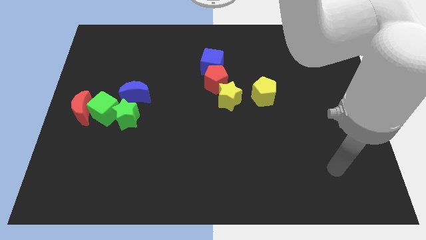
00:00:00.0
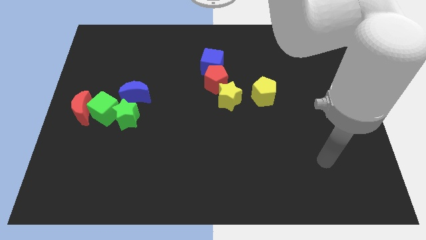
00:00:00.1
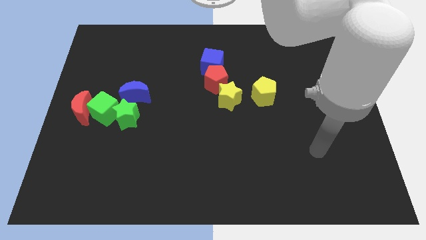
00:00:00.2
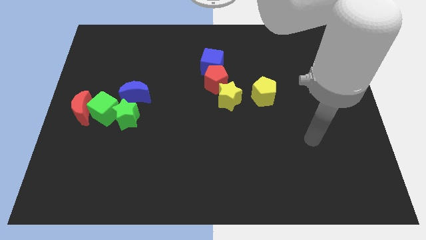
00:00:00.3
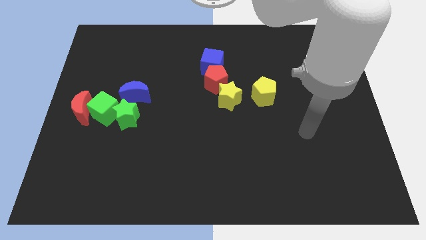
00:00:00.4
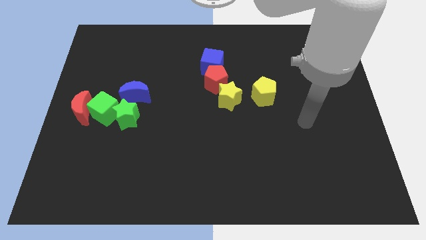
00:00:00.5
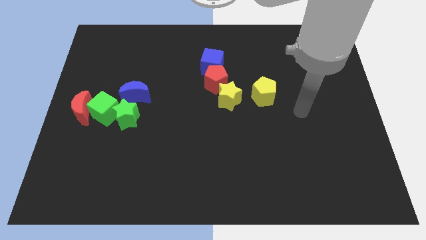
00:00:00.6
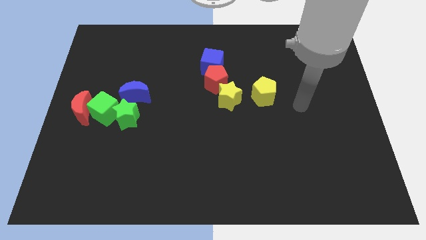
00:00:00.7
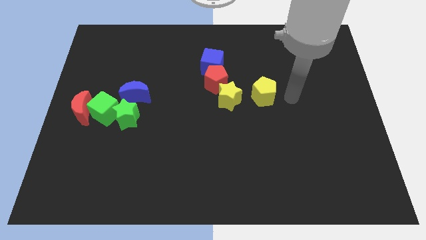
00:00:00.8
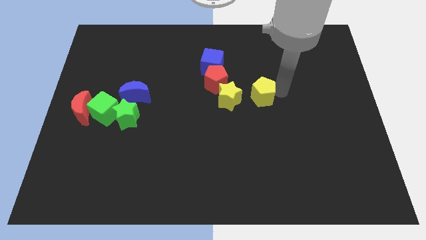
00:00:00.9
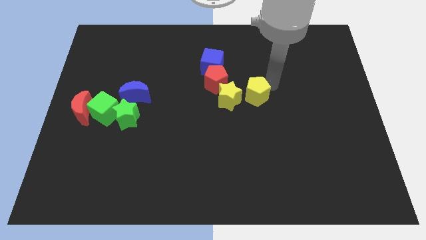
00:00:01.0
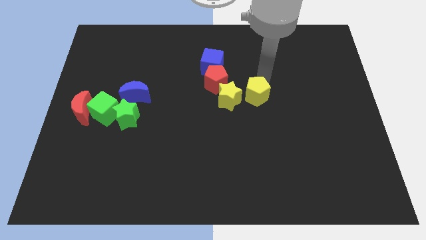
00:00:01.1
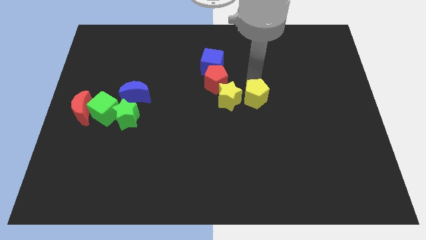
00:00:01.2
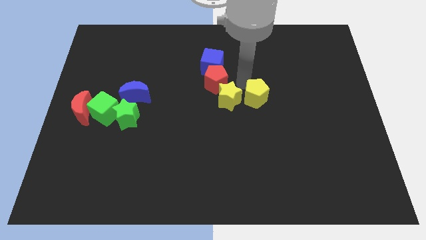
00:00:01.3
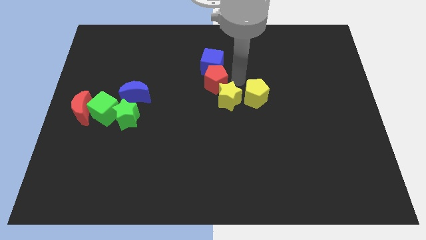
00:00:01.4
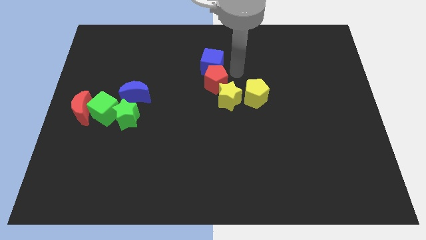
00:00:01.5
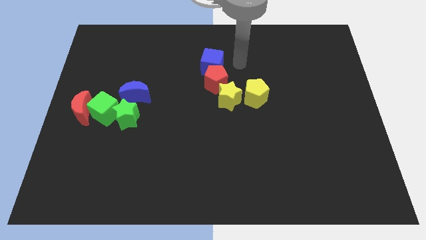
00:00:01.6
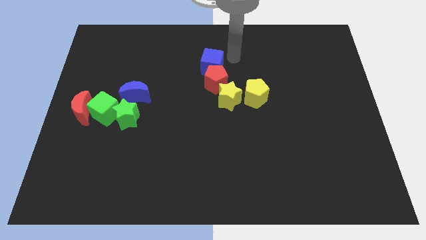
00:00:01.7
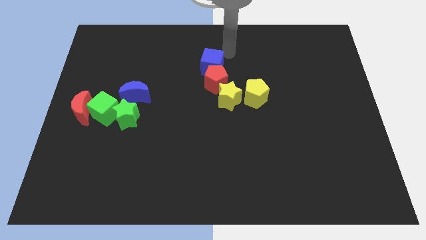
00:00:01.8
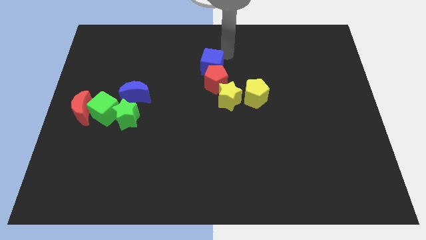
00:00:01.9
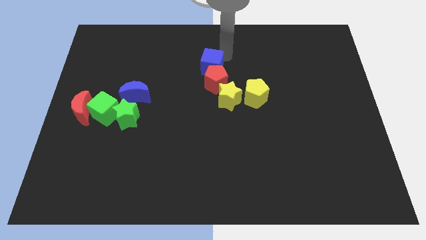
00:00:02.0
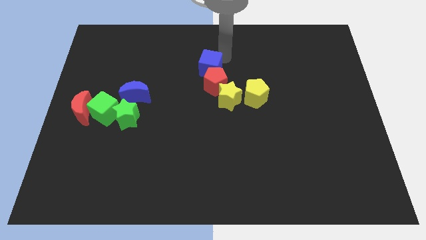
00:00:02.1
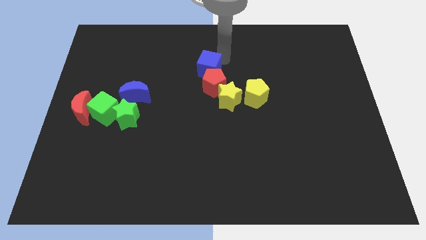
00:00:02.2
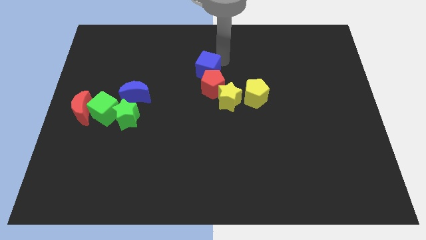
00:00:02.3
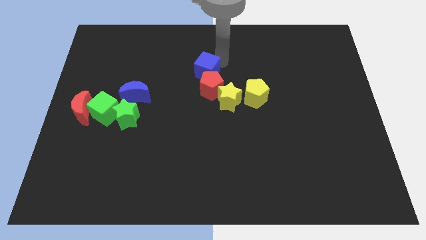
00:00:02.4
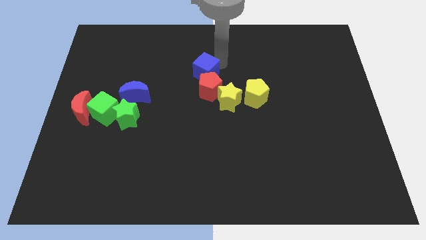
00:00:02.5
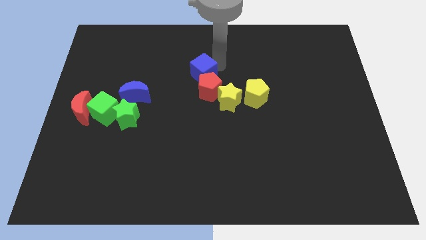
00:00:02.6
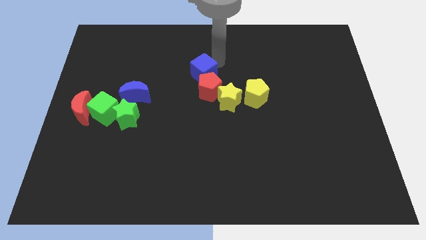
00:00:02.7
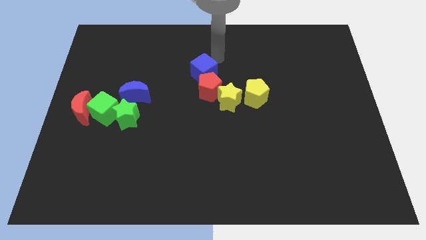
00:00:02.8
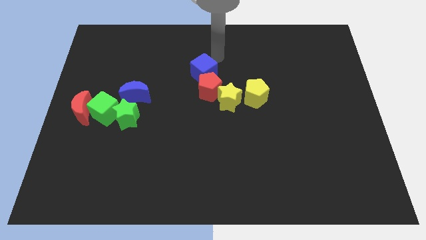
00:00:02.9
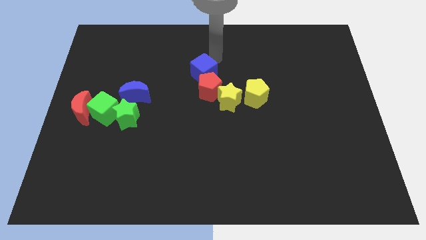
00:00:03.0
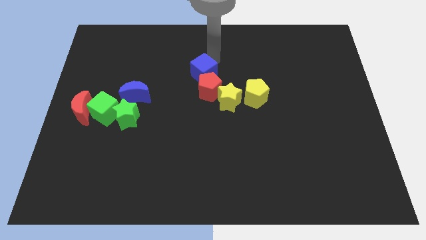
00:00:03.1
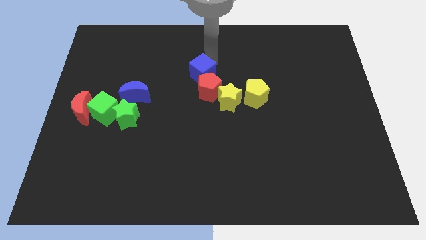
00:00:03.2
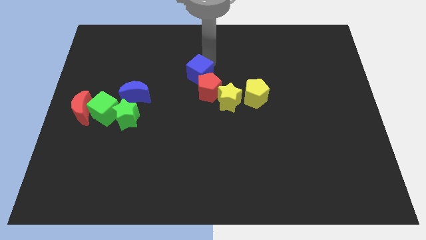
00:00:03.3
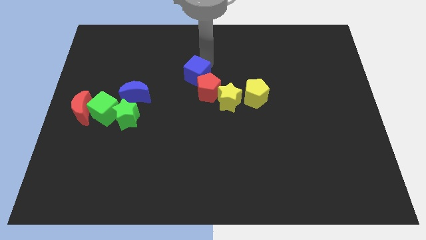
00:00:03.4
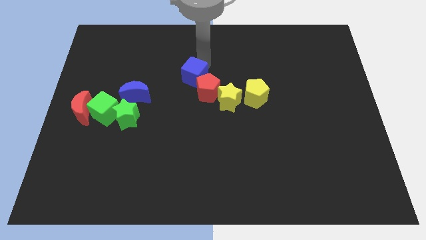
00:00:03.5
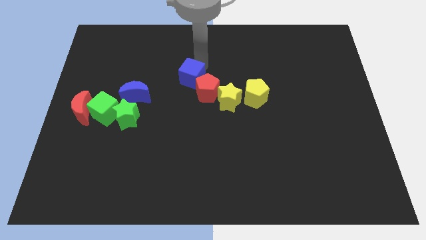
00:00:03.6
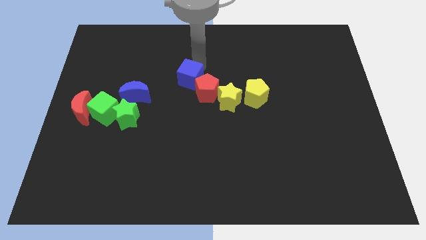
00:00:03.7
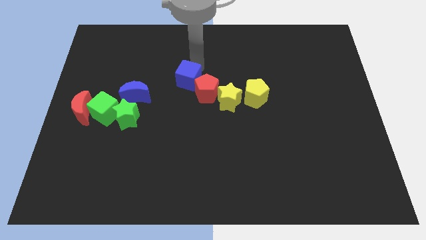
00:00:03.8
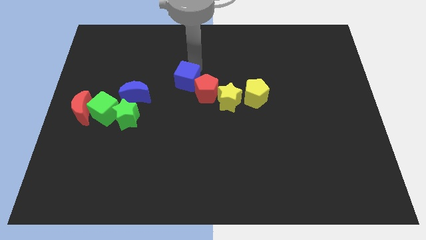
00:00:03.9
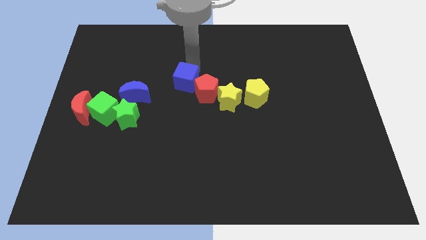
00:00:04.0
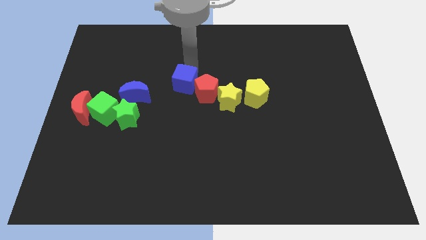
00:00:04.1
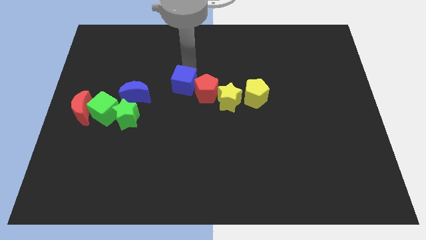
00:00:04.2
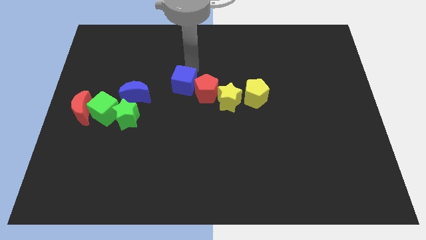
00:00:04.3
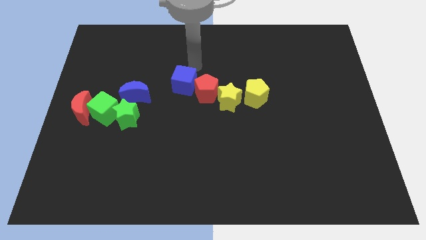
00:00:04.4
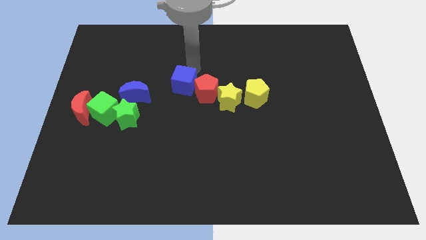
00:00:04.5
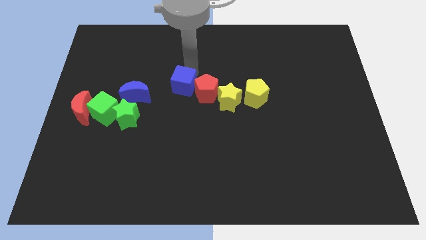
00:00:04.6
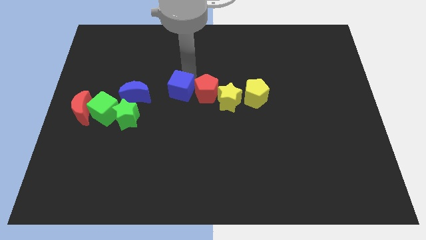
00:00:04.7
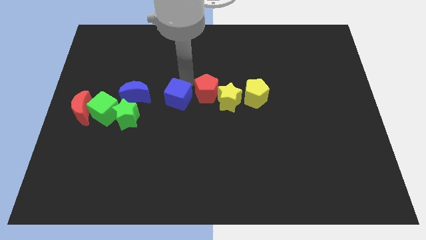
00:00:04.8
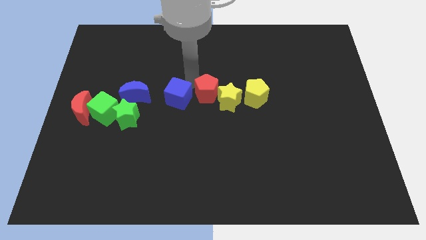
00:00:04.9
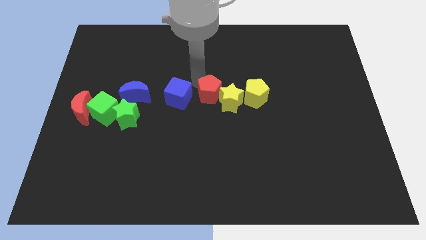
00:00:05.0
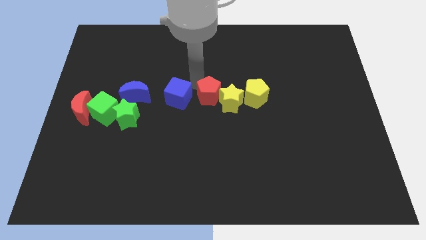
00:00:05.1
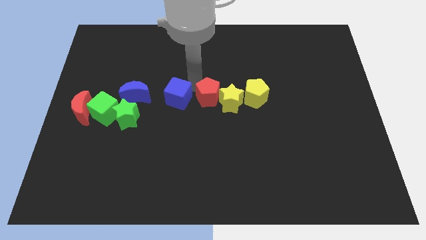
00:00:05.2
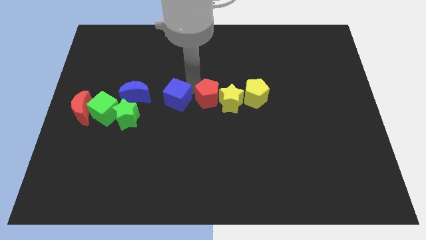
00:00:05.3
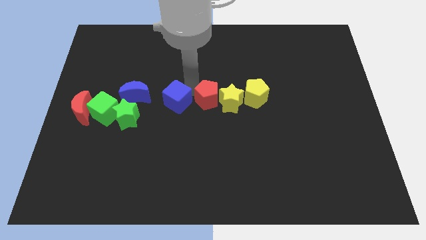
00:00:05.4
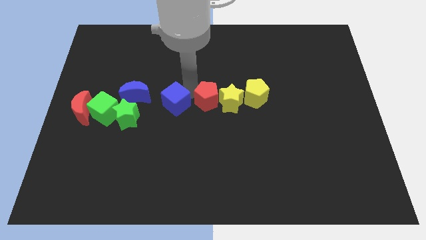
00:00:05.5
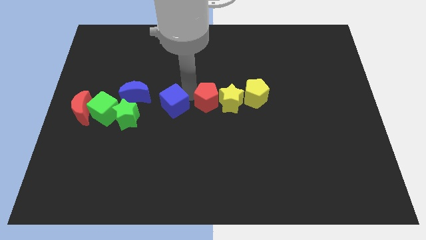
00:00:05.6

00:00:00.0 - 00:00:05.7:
put the blue cube to the bottom right side of the blue moon

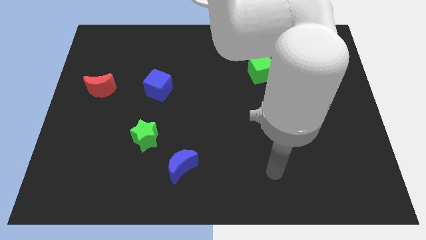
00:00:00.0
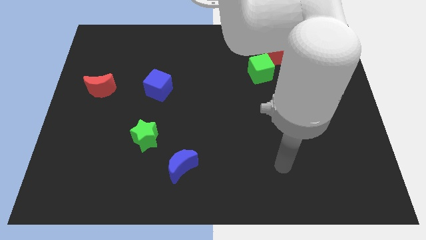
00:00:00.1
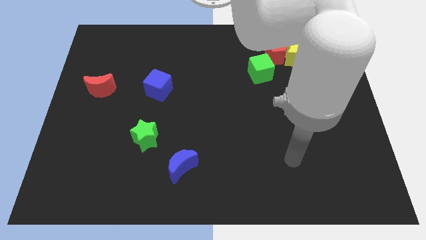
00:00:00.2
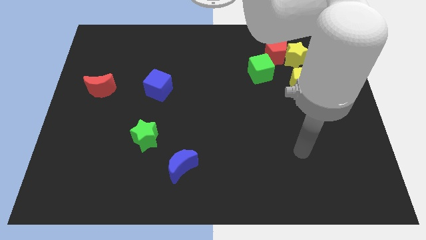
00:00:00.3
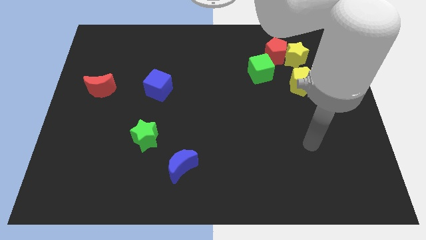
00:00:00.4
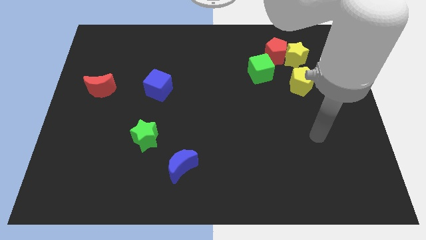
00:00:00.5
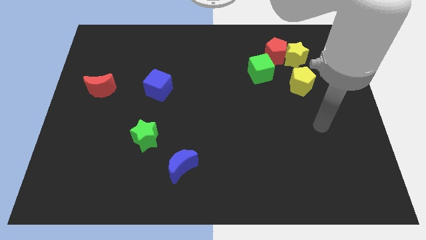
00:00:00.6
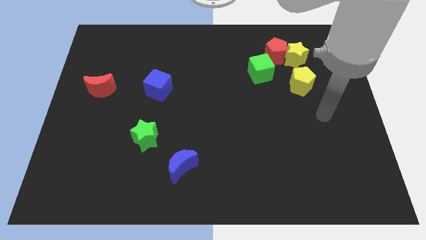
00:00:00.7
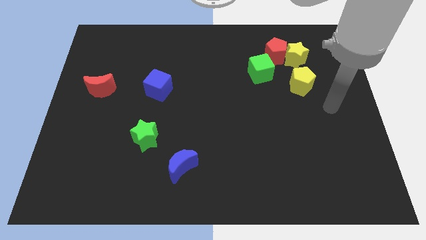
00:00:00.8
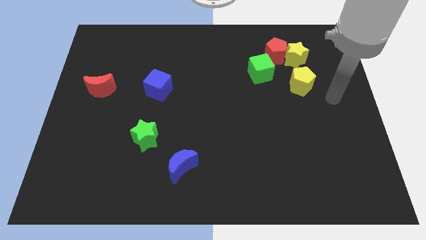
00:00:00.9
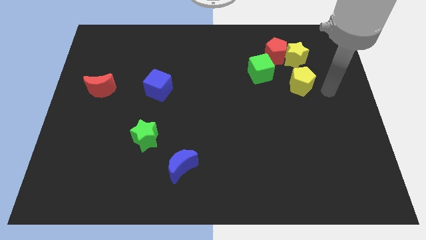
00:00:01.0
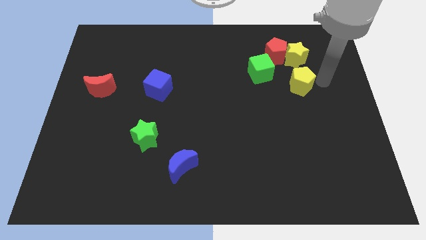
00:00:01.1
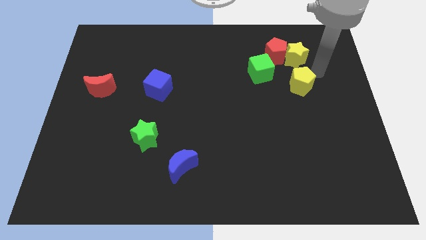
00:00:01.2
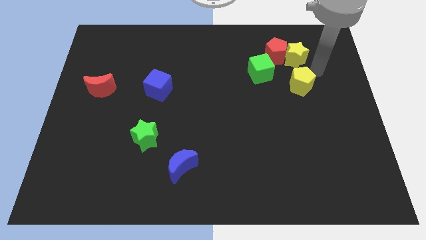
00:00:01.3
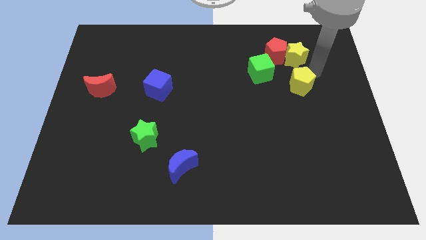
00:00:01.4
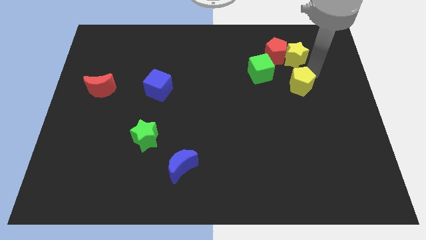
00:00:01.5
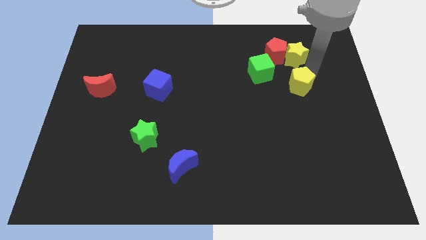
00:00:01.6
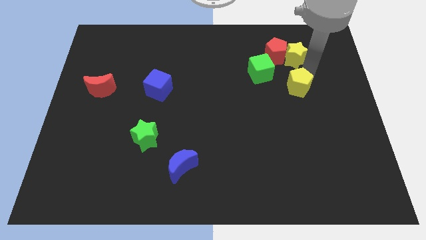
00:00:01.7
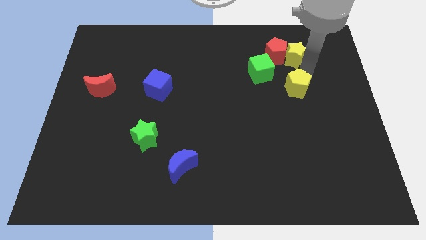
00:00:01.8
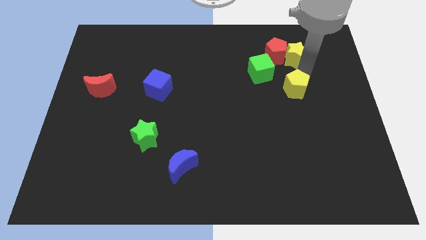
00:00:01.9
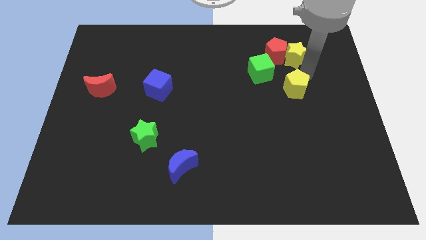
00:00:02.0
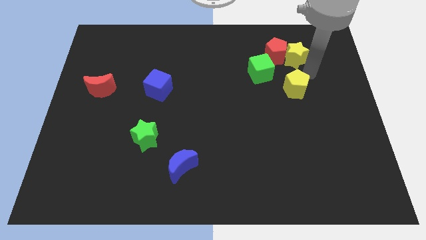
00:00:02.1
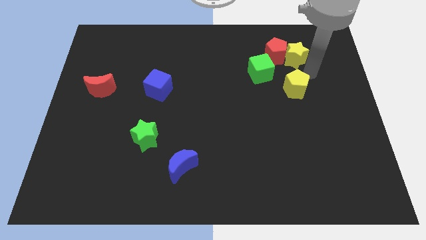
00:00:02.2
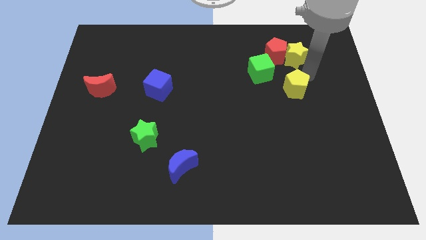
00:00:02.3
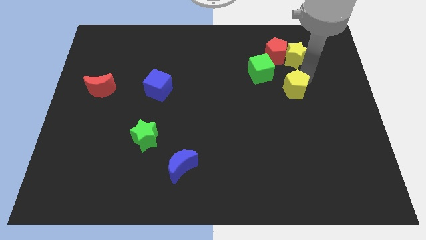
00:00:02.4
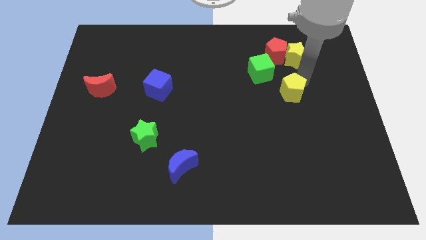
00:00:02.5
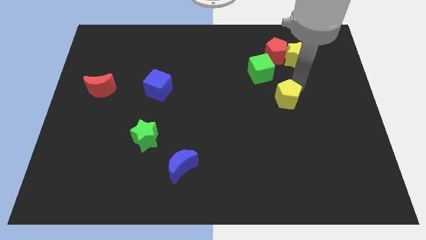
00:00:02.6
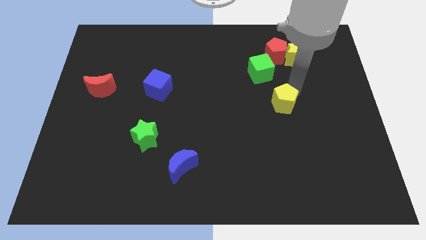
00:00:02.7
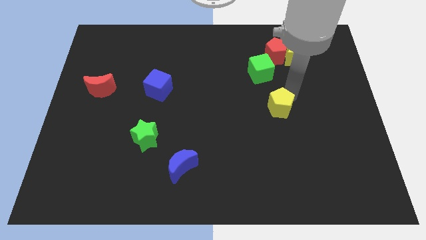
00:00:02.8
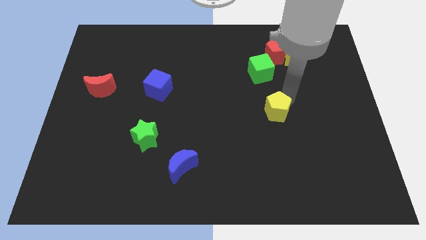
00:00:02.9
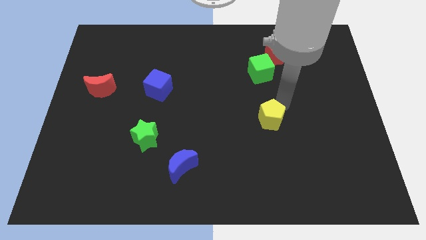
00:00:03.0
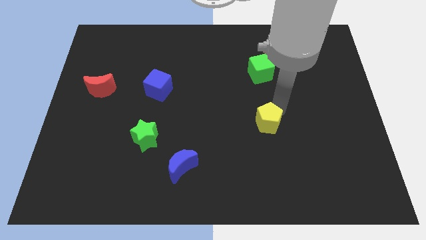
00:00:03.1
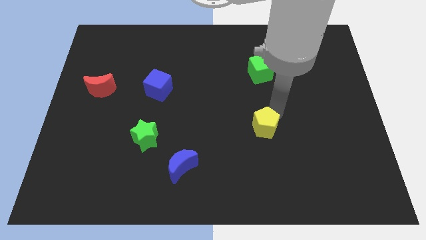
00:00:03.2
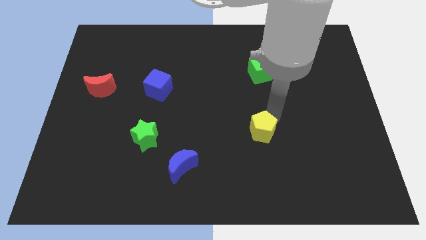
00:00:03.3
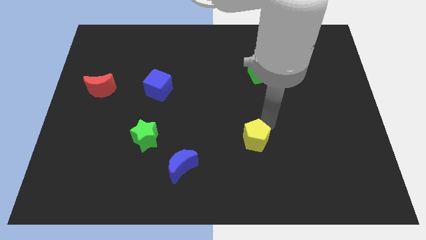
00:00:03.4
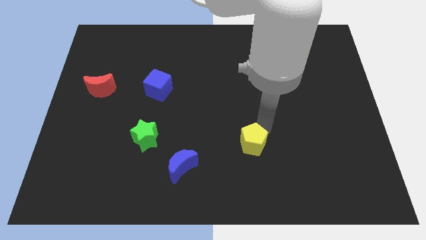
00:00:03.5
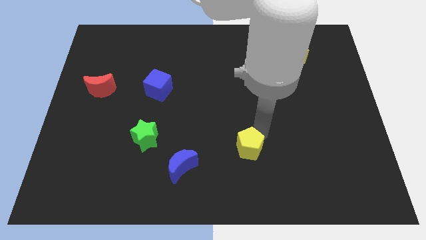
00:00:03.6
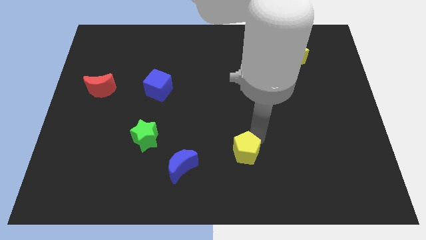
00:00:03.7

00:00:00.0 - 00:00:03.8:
push the yellow pentagon to the right side of the blue moon
